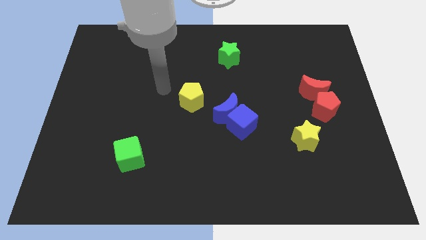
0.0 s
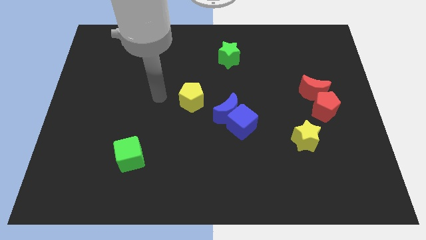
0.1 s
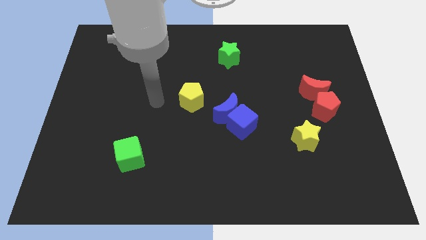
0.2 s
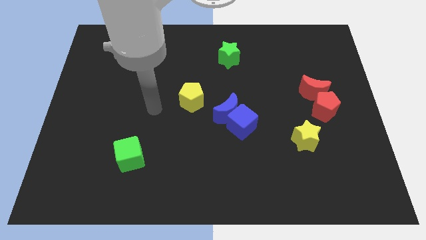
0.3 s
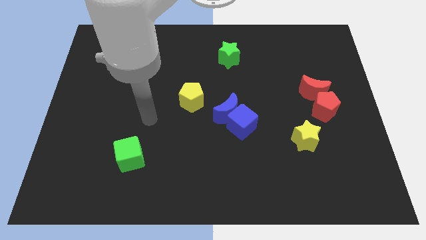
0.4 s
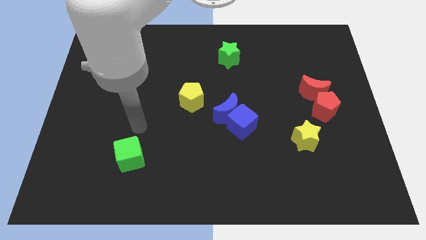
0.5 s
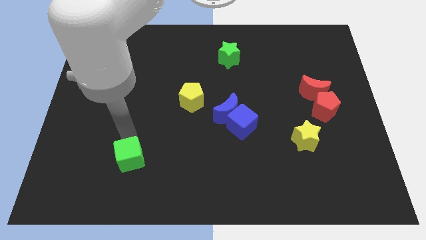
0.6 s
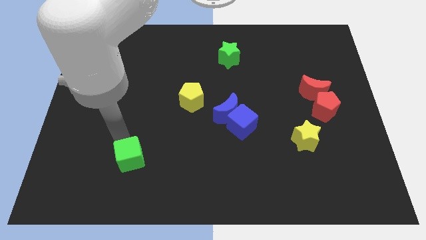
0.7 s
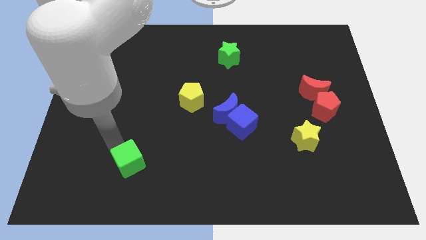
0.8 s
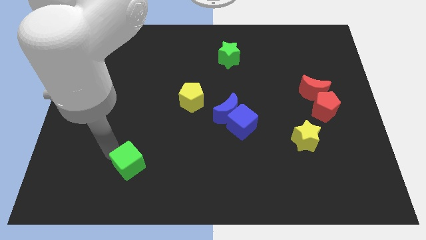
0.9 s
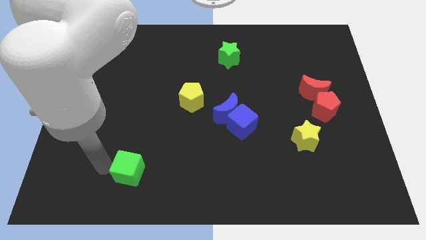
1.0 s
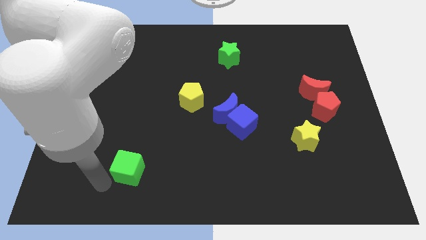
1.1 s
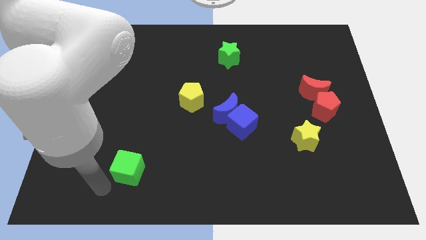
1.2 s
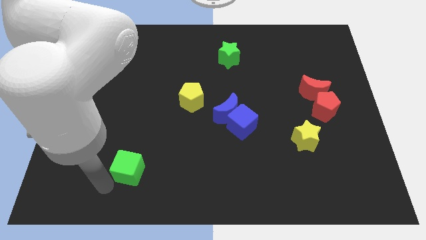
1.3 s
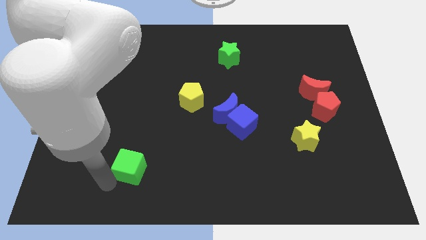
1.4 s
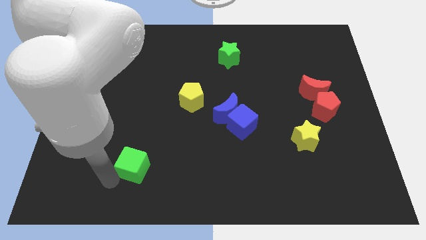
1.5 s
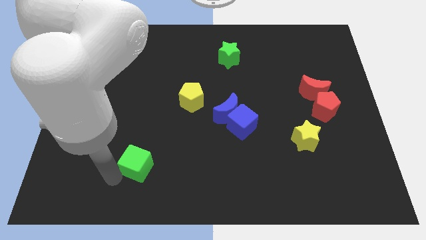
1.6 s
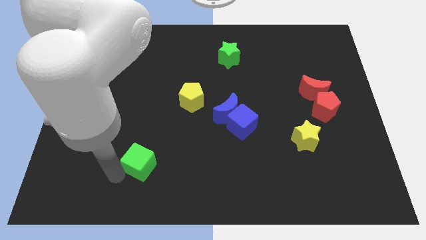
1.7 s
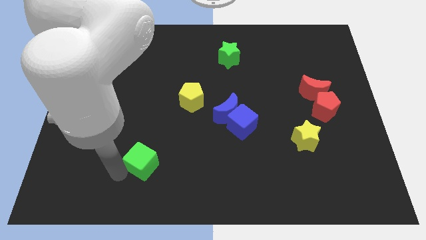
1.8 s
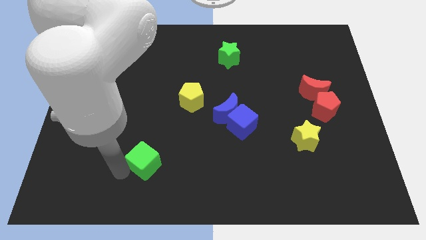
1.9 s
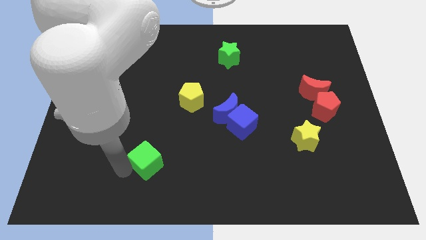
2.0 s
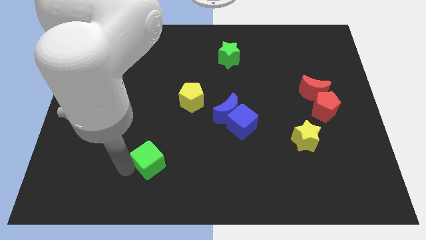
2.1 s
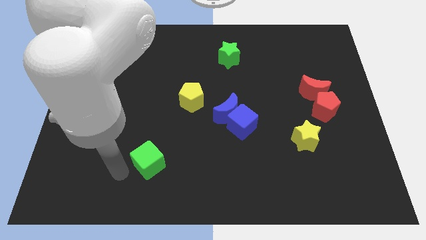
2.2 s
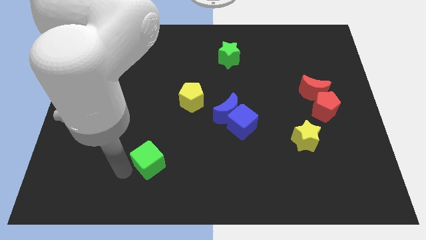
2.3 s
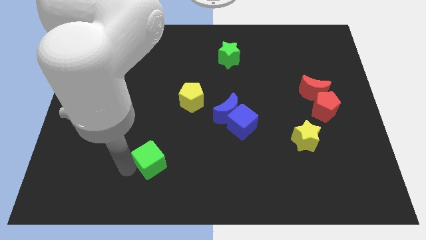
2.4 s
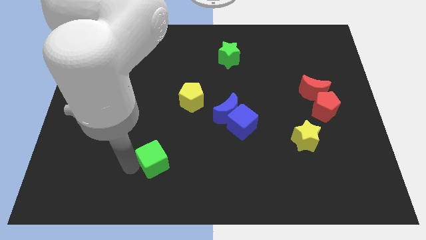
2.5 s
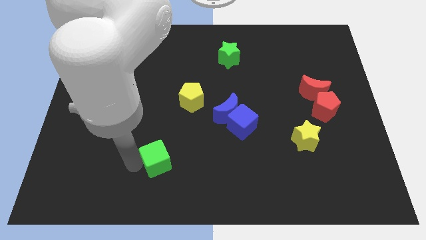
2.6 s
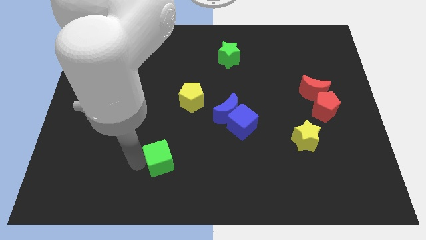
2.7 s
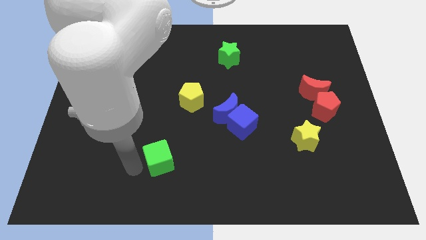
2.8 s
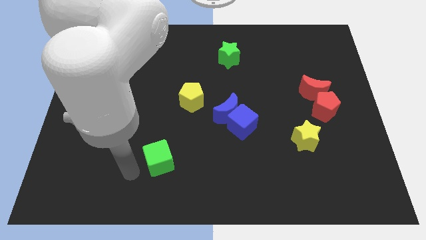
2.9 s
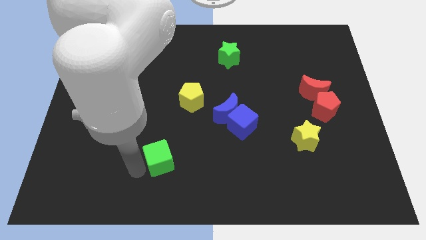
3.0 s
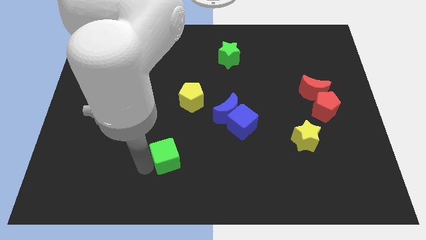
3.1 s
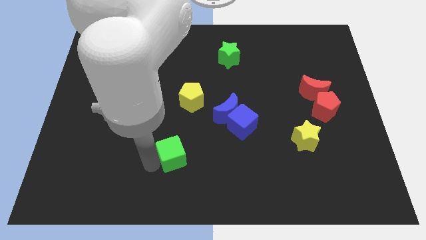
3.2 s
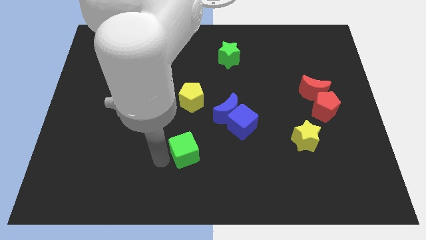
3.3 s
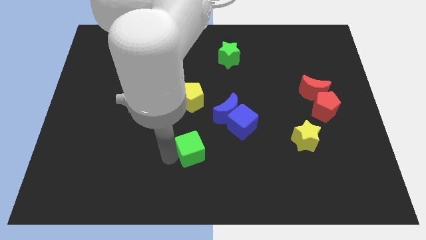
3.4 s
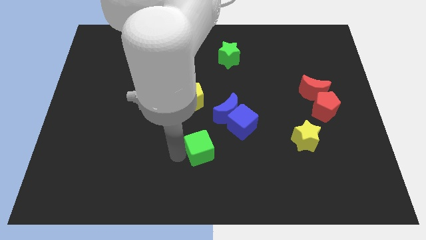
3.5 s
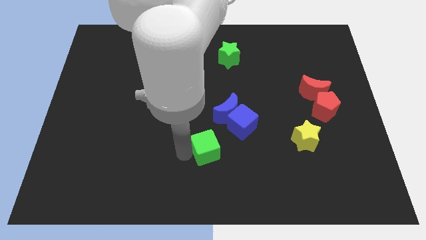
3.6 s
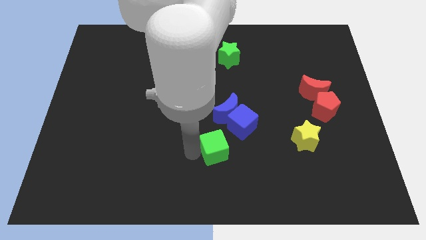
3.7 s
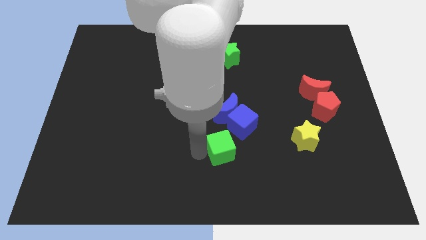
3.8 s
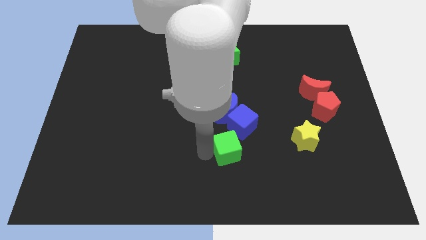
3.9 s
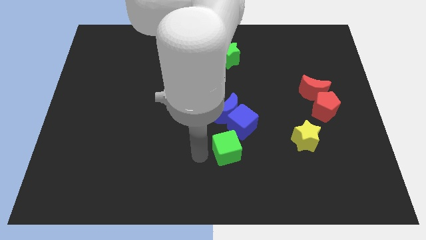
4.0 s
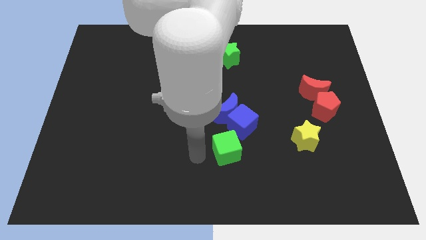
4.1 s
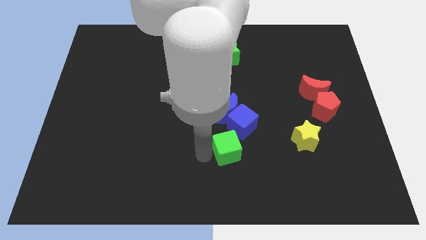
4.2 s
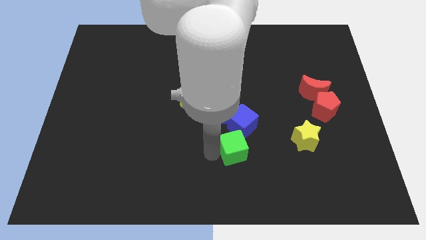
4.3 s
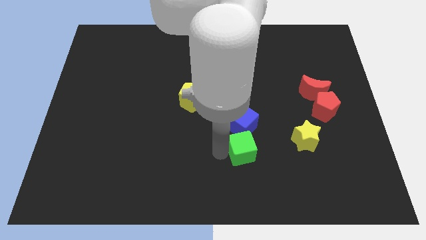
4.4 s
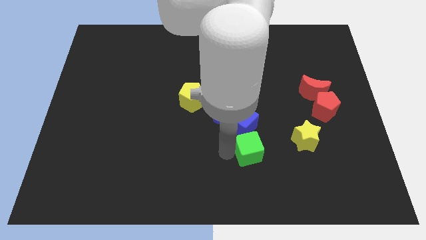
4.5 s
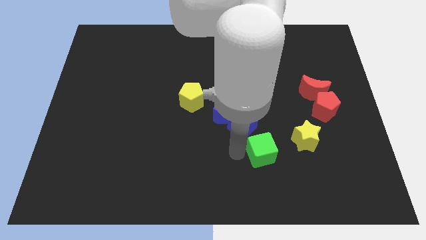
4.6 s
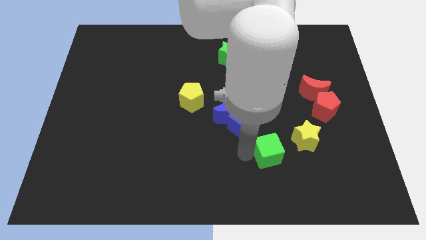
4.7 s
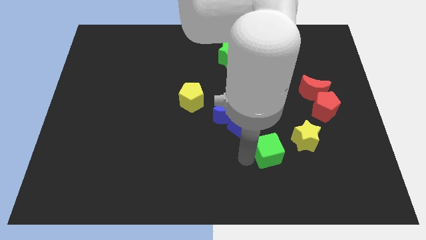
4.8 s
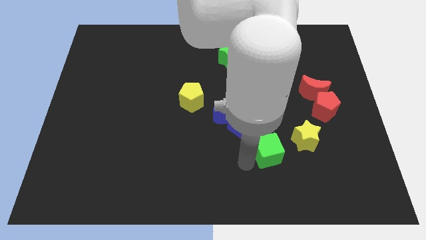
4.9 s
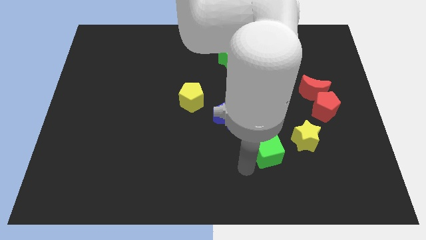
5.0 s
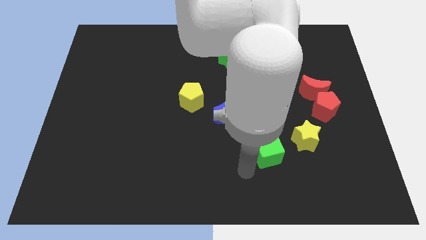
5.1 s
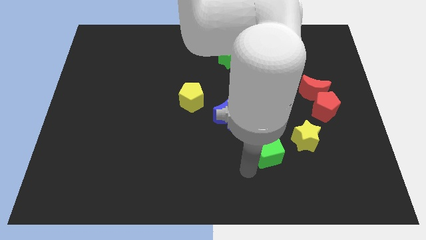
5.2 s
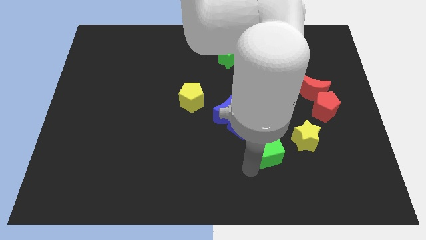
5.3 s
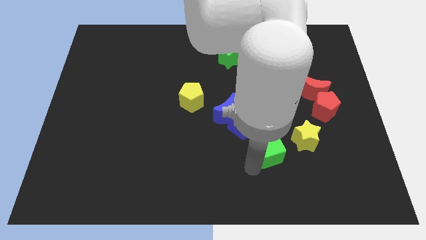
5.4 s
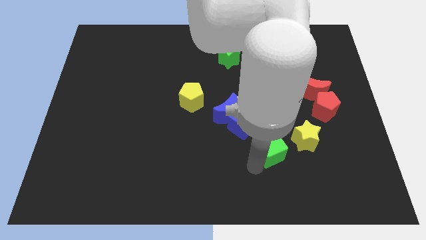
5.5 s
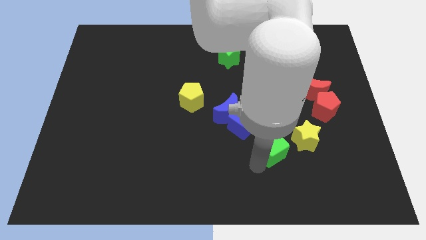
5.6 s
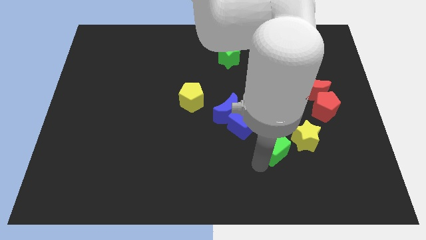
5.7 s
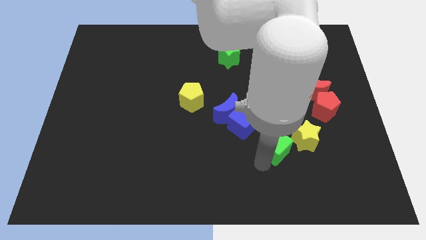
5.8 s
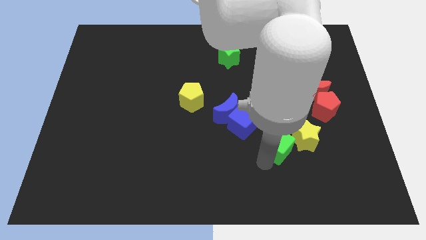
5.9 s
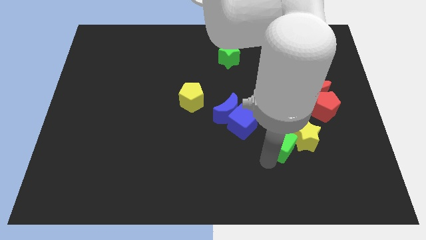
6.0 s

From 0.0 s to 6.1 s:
push the green cube towards the yellow star

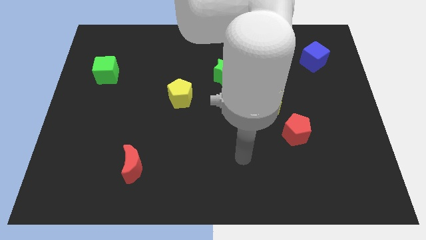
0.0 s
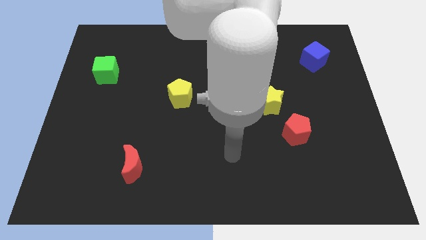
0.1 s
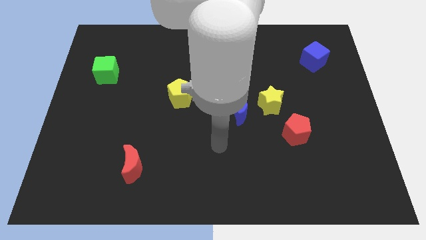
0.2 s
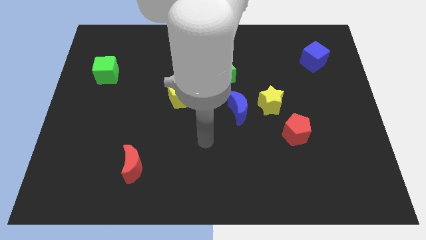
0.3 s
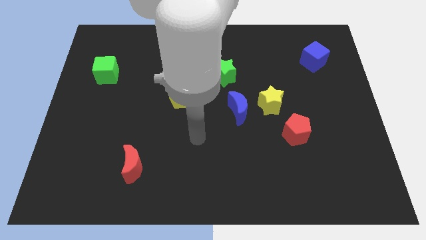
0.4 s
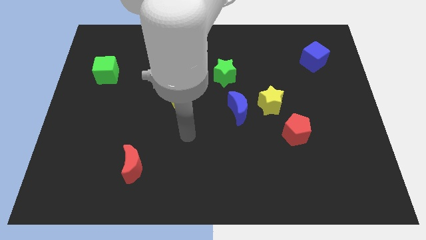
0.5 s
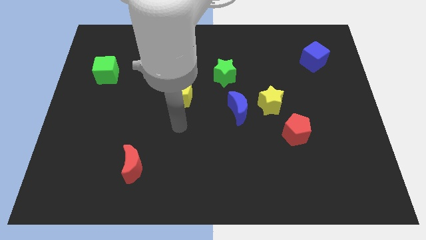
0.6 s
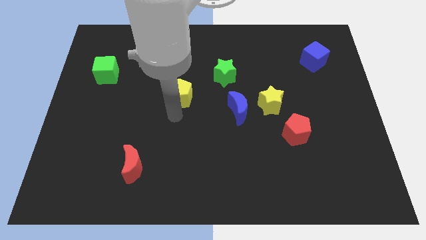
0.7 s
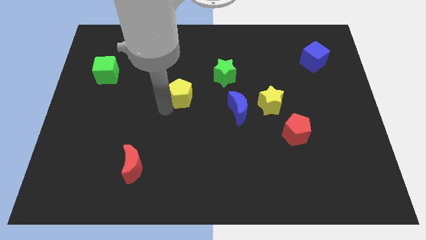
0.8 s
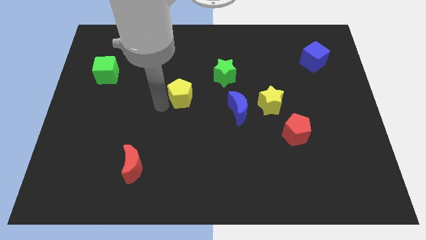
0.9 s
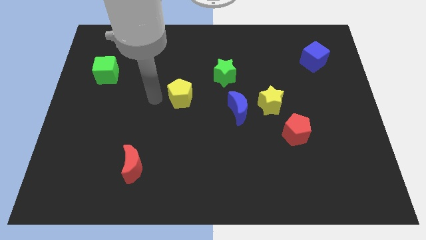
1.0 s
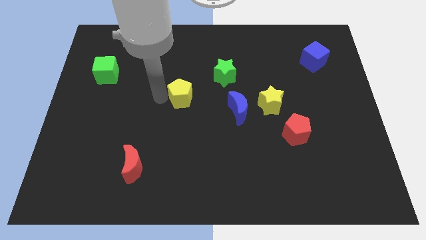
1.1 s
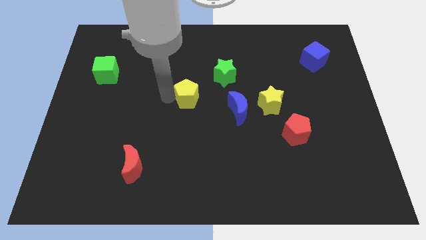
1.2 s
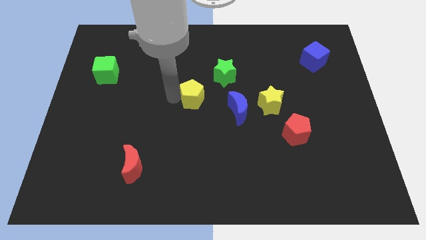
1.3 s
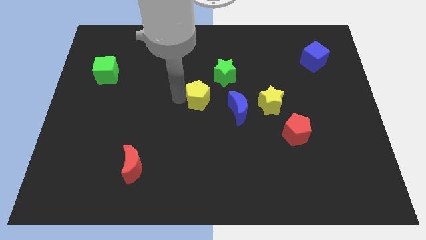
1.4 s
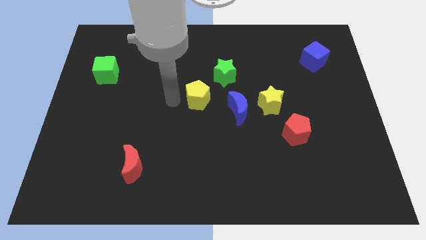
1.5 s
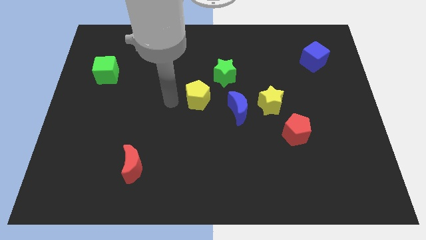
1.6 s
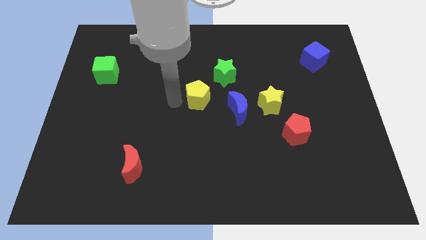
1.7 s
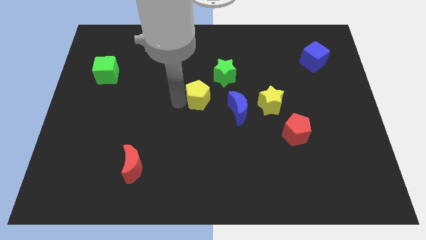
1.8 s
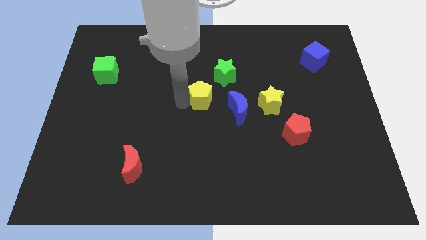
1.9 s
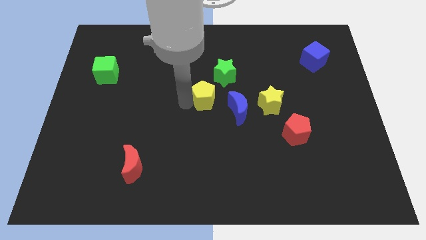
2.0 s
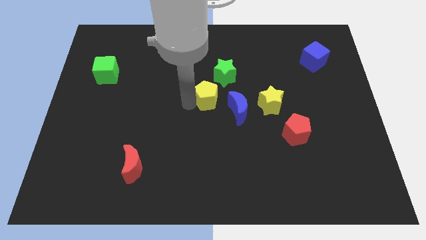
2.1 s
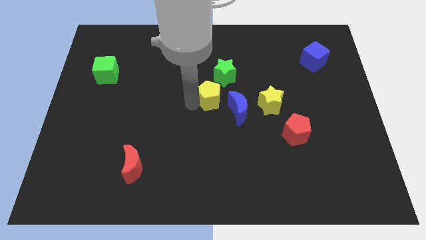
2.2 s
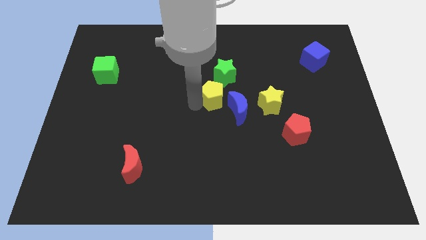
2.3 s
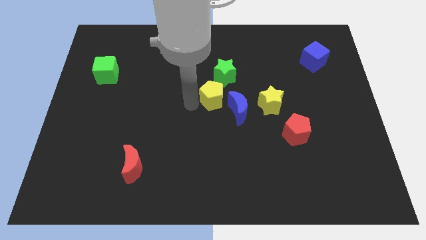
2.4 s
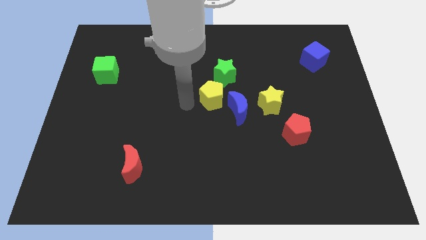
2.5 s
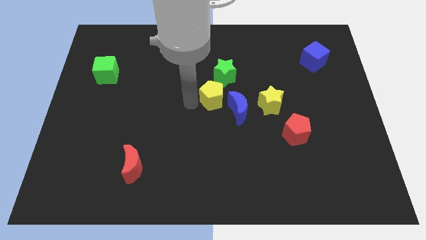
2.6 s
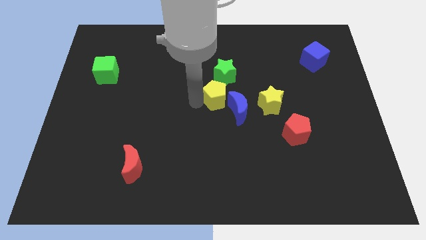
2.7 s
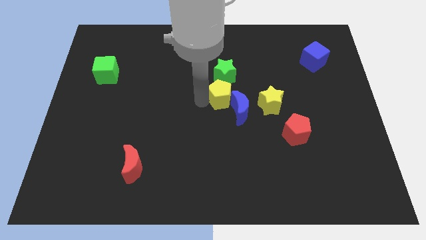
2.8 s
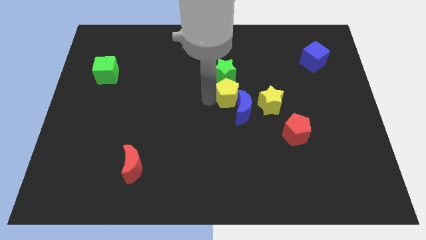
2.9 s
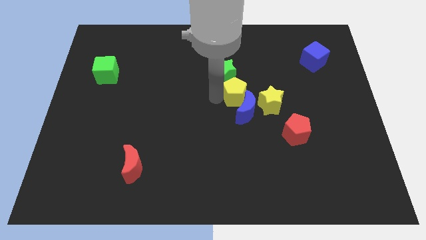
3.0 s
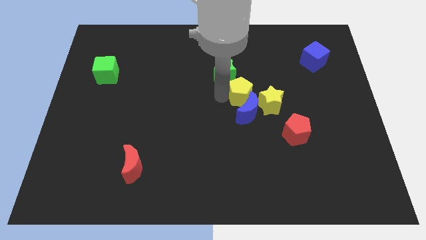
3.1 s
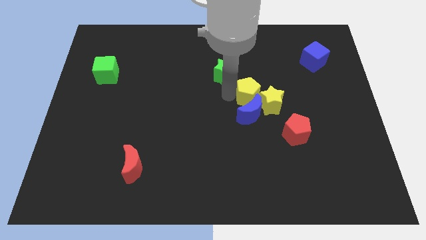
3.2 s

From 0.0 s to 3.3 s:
move the yellow pentagon close to the yellow star
